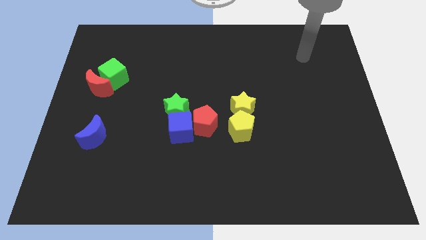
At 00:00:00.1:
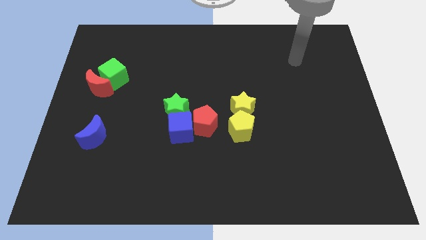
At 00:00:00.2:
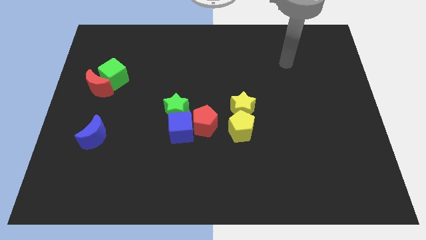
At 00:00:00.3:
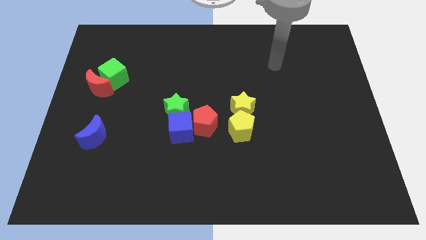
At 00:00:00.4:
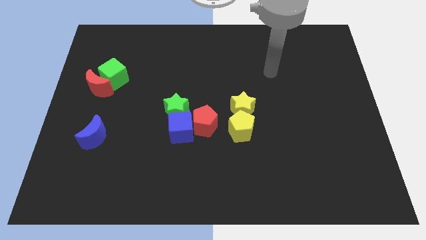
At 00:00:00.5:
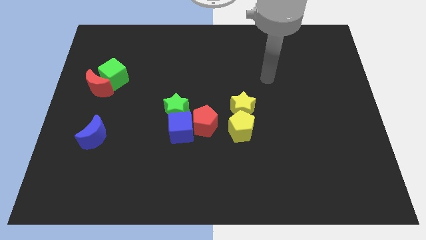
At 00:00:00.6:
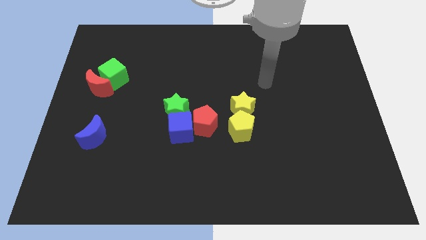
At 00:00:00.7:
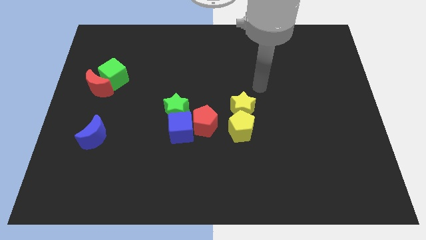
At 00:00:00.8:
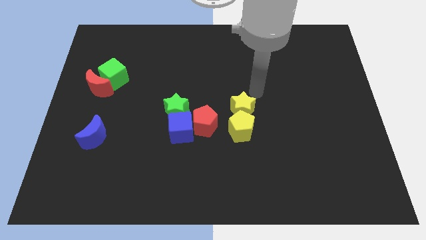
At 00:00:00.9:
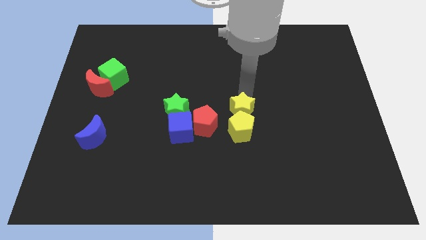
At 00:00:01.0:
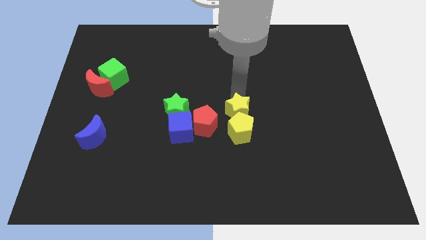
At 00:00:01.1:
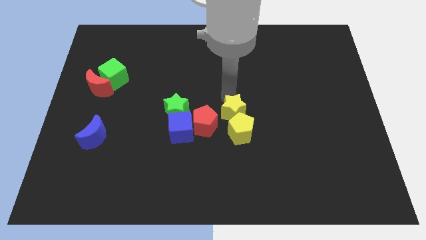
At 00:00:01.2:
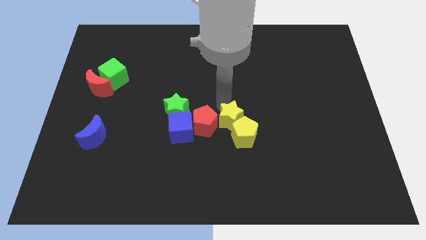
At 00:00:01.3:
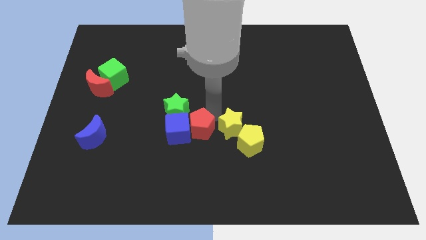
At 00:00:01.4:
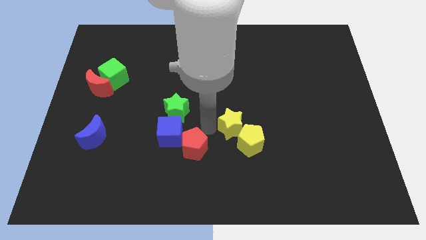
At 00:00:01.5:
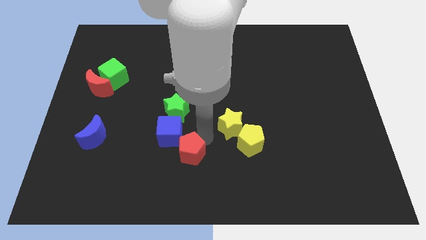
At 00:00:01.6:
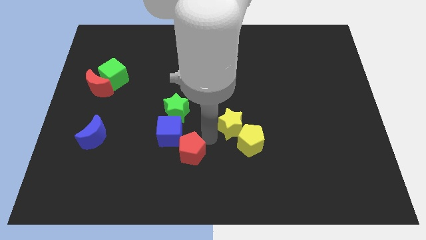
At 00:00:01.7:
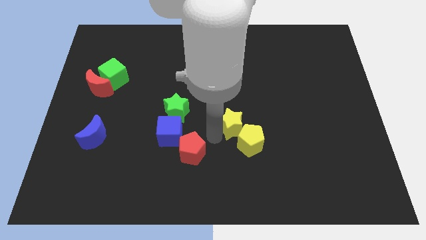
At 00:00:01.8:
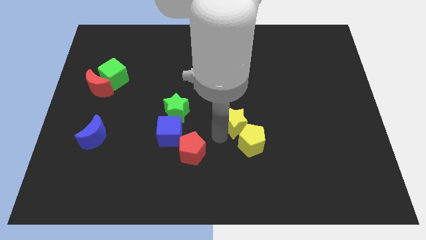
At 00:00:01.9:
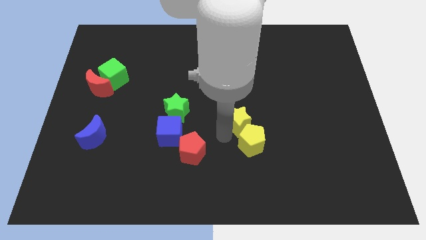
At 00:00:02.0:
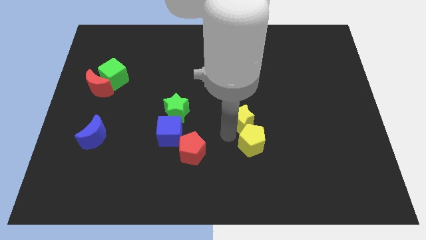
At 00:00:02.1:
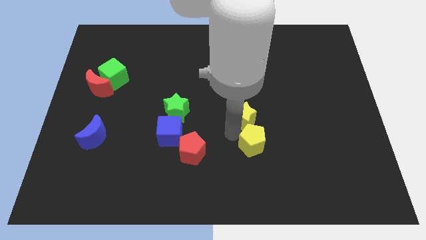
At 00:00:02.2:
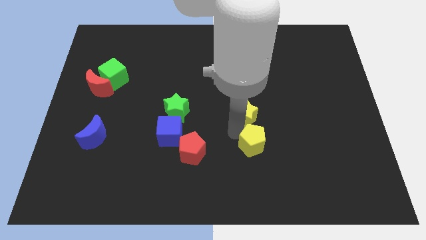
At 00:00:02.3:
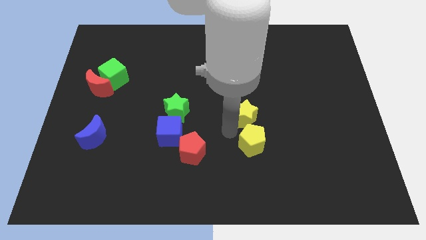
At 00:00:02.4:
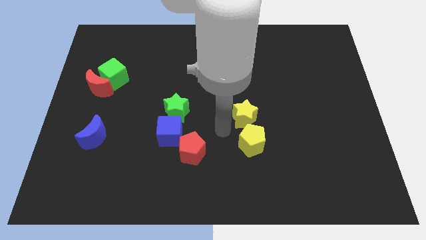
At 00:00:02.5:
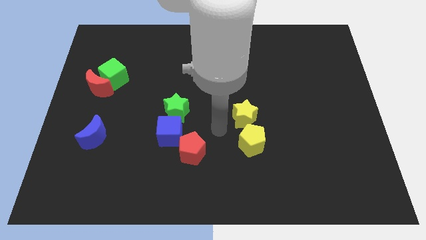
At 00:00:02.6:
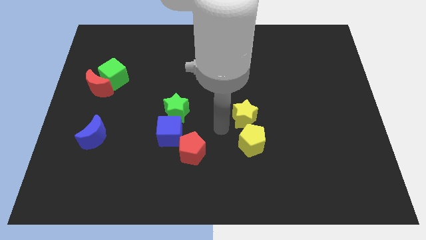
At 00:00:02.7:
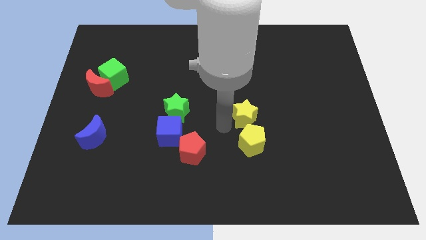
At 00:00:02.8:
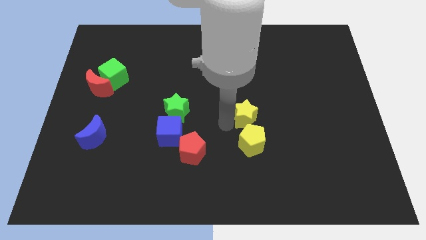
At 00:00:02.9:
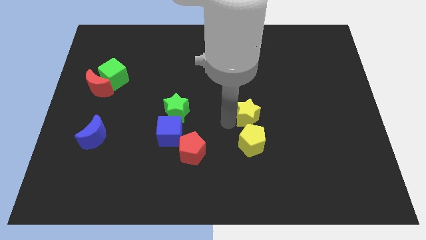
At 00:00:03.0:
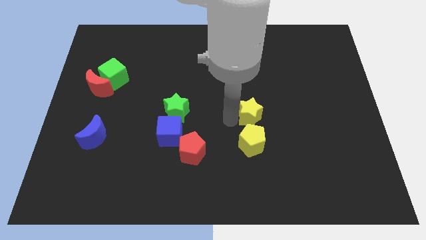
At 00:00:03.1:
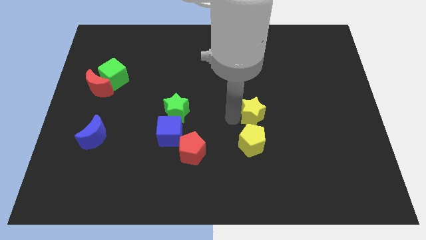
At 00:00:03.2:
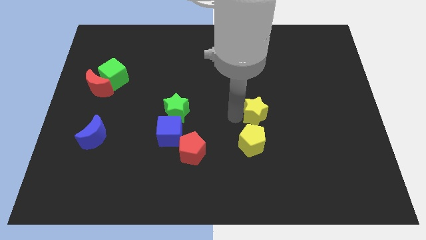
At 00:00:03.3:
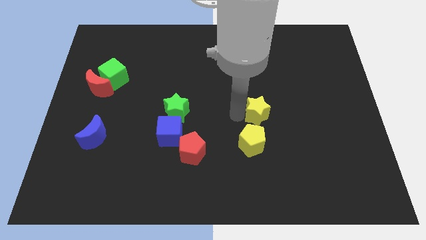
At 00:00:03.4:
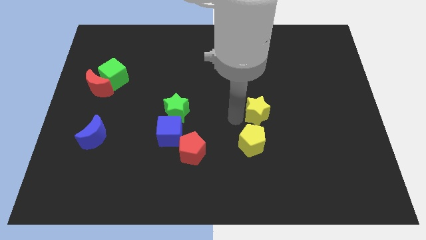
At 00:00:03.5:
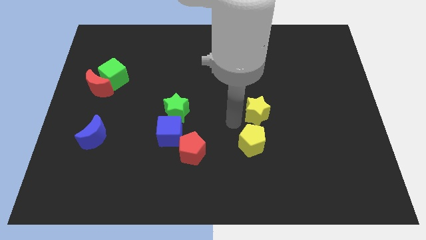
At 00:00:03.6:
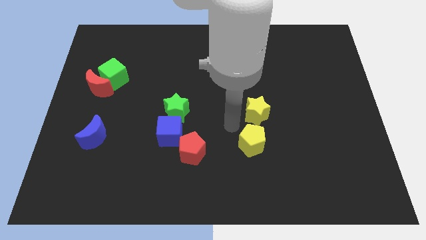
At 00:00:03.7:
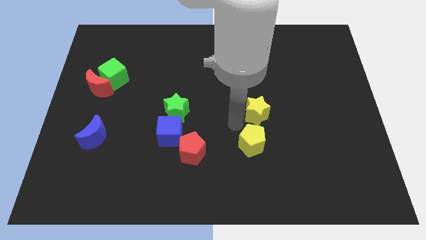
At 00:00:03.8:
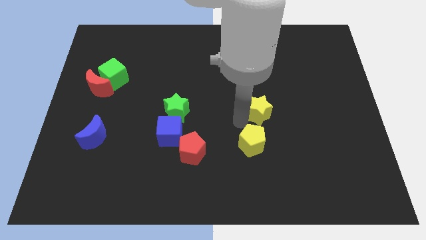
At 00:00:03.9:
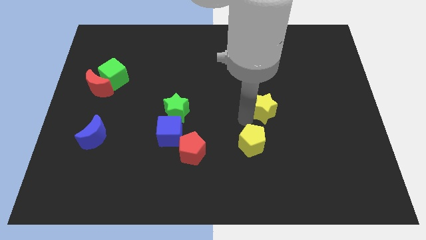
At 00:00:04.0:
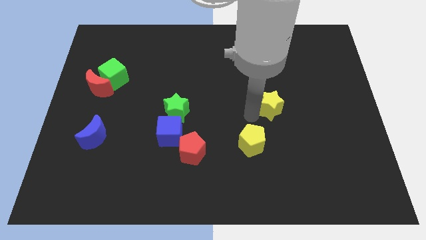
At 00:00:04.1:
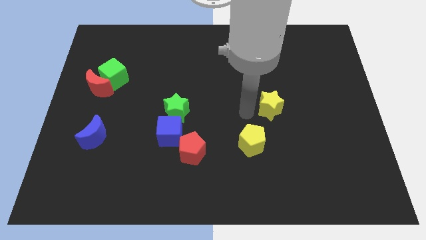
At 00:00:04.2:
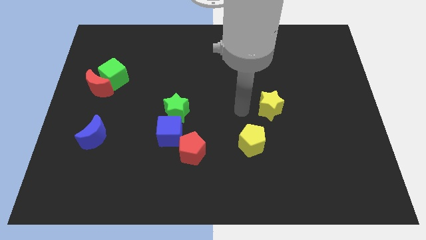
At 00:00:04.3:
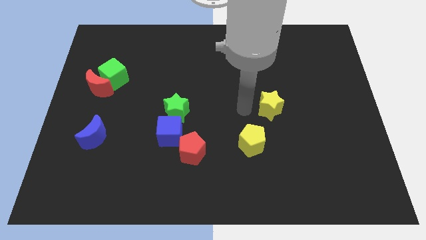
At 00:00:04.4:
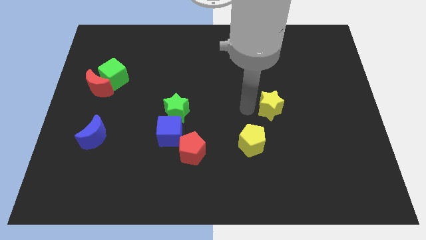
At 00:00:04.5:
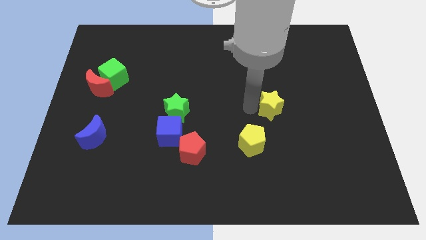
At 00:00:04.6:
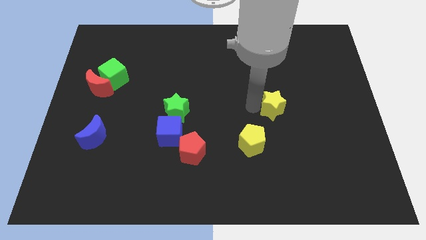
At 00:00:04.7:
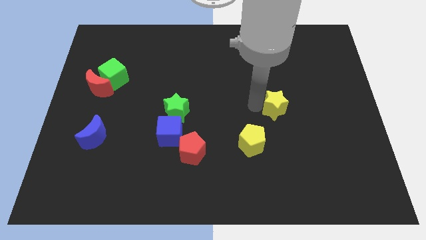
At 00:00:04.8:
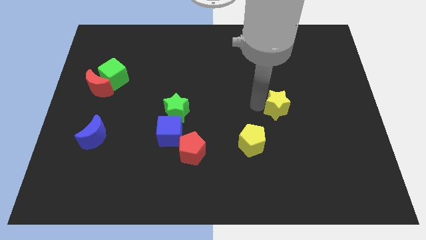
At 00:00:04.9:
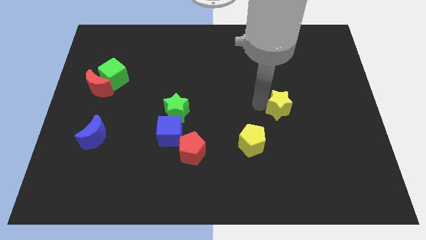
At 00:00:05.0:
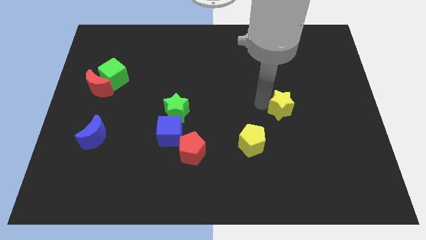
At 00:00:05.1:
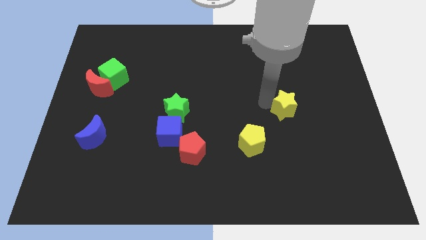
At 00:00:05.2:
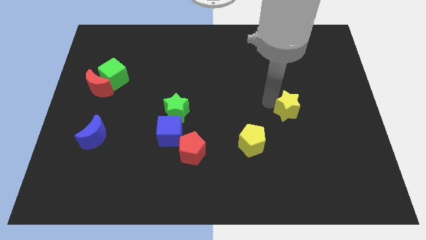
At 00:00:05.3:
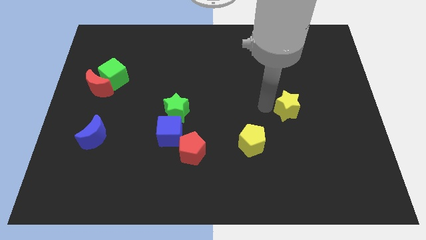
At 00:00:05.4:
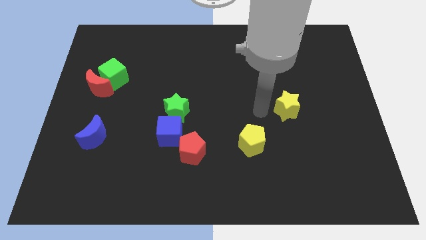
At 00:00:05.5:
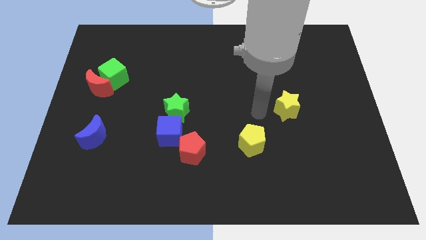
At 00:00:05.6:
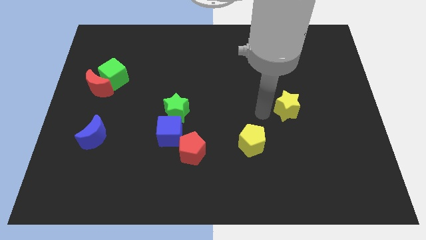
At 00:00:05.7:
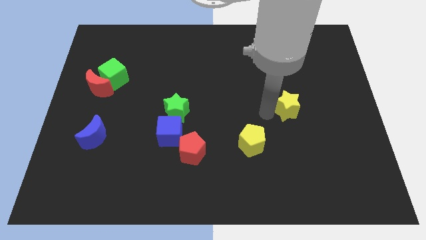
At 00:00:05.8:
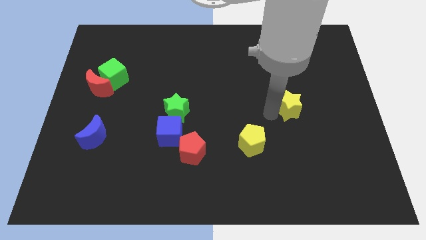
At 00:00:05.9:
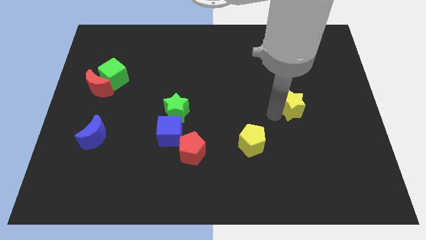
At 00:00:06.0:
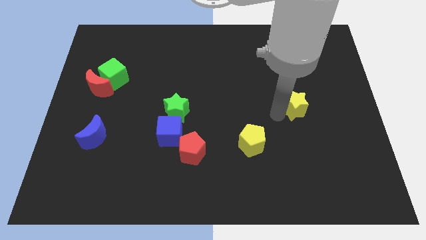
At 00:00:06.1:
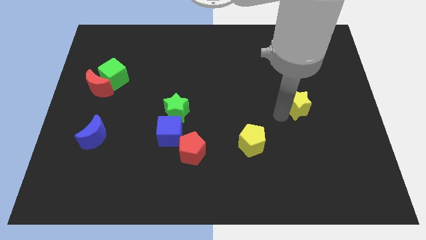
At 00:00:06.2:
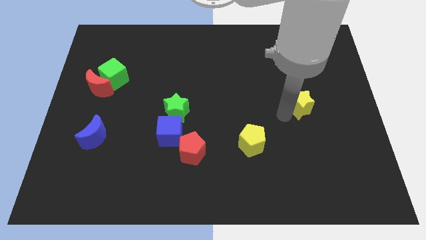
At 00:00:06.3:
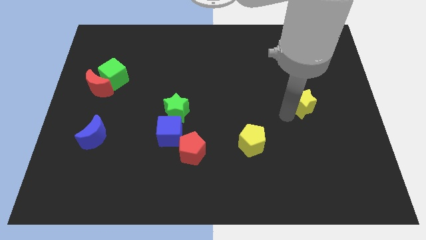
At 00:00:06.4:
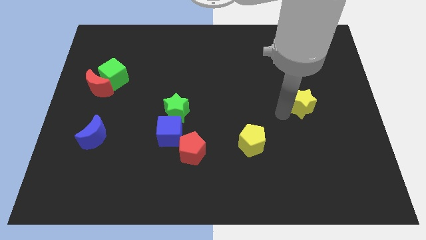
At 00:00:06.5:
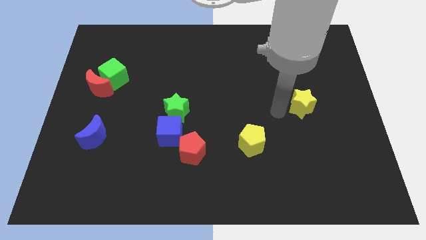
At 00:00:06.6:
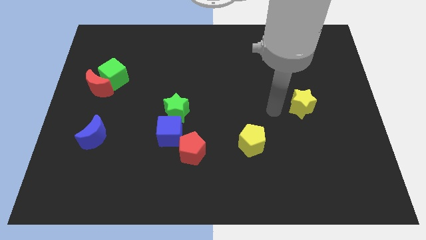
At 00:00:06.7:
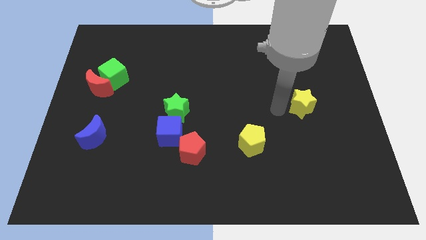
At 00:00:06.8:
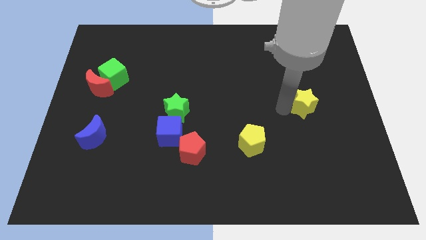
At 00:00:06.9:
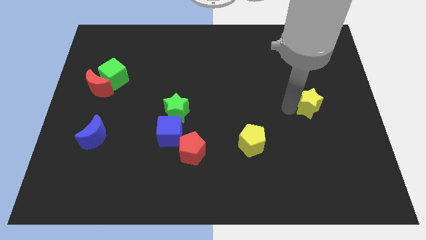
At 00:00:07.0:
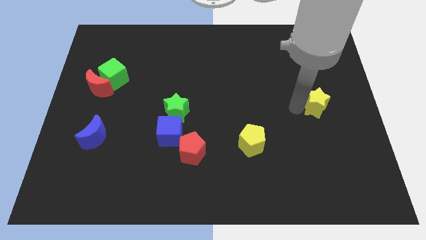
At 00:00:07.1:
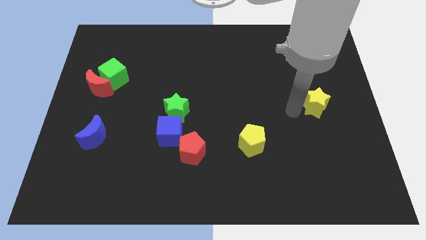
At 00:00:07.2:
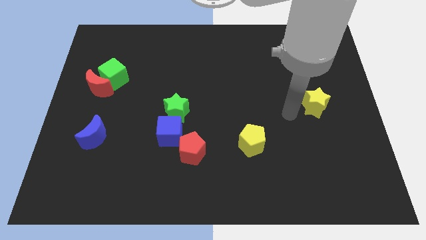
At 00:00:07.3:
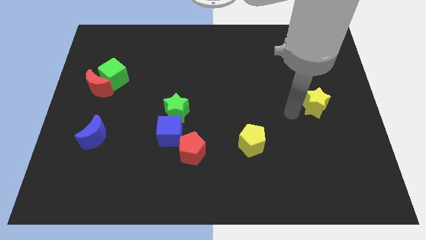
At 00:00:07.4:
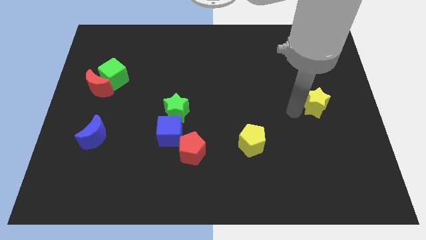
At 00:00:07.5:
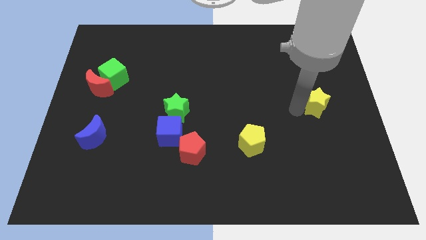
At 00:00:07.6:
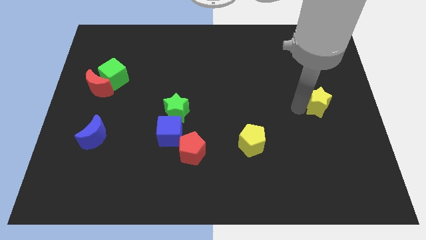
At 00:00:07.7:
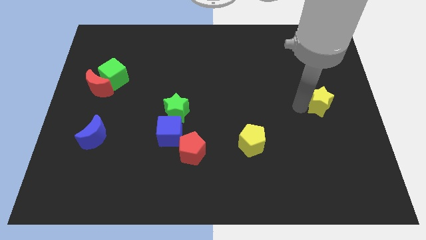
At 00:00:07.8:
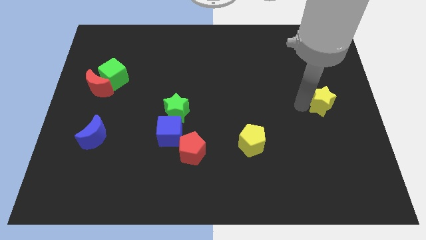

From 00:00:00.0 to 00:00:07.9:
move the yellow star to the center right
